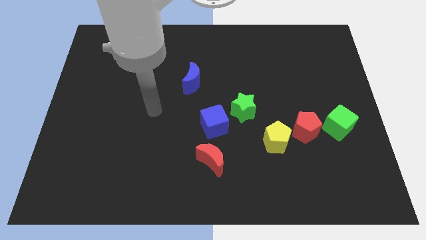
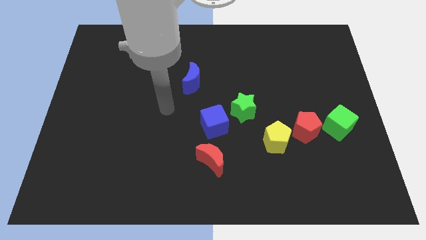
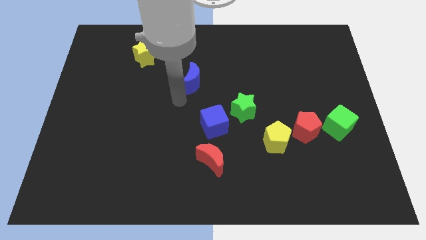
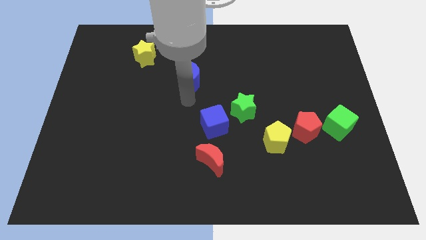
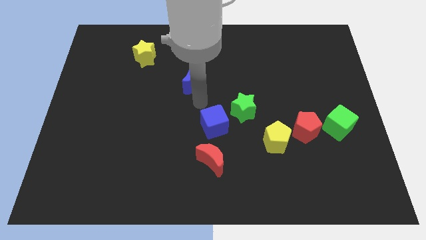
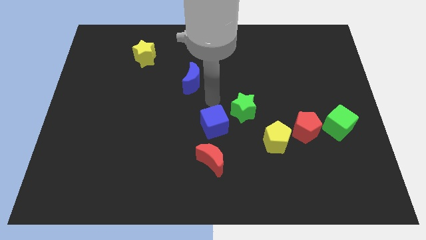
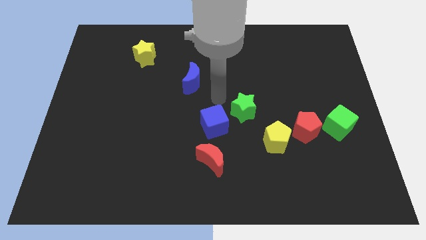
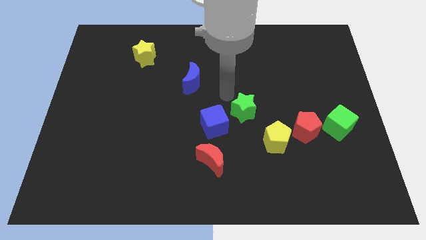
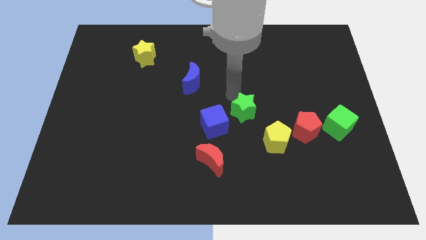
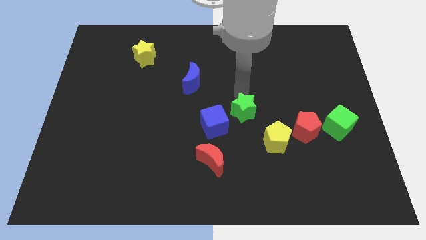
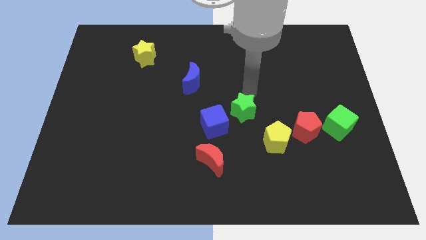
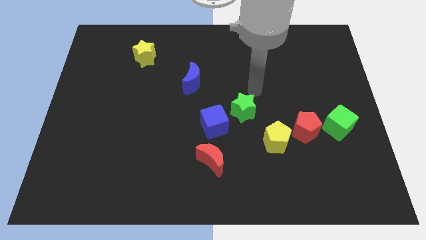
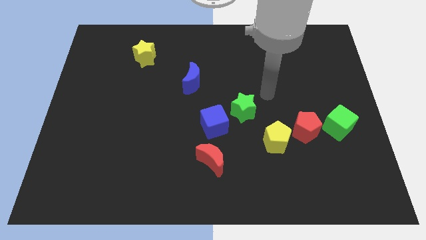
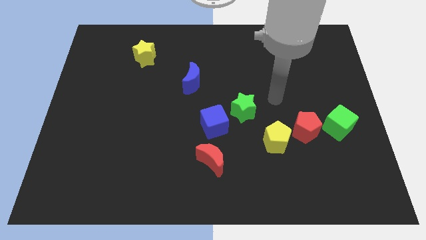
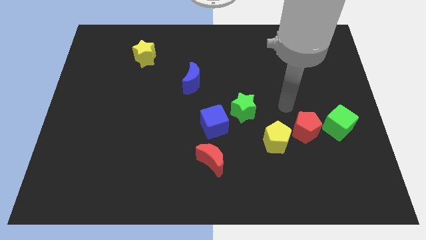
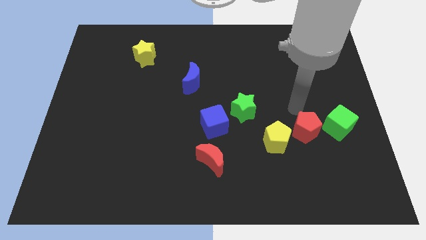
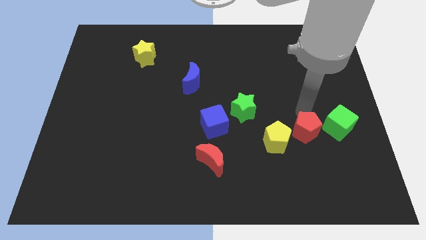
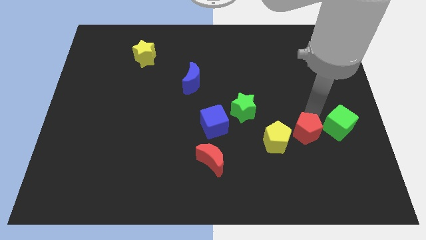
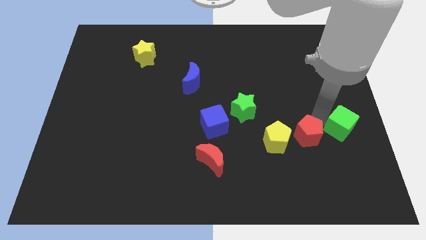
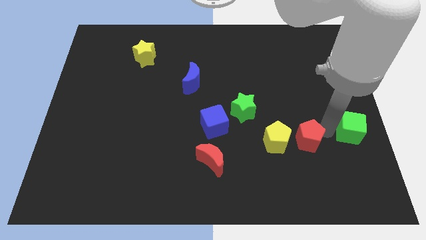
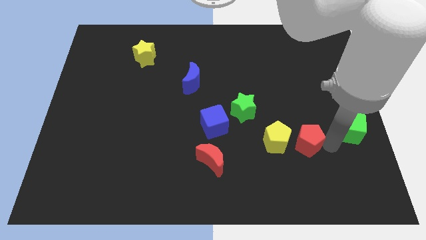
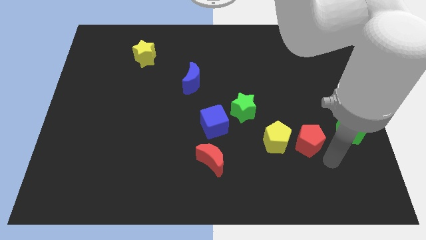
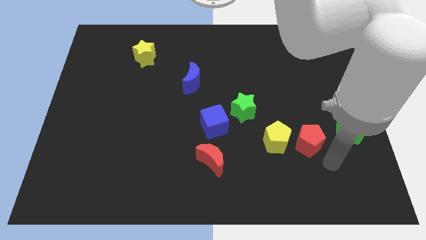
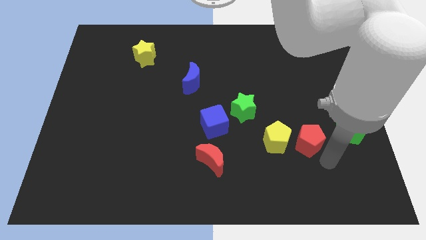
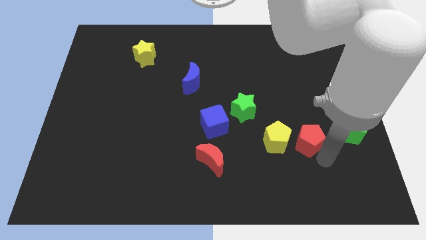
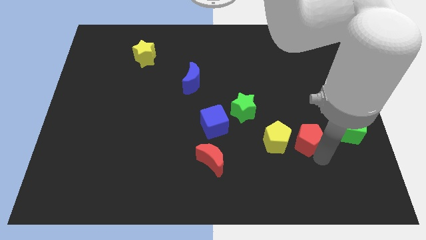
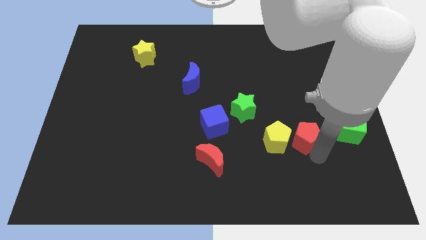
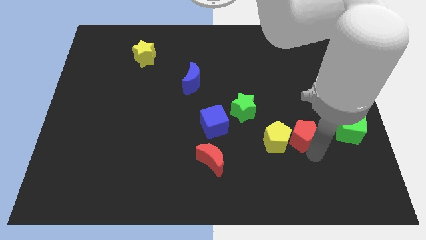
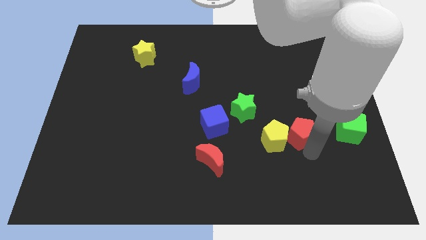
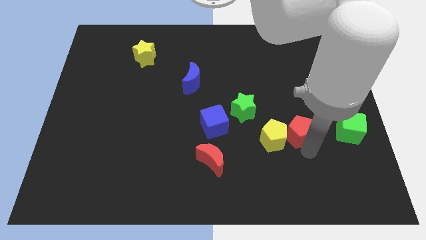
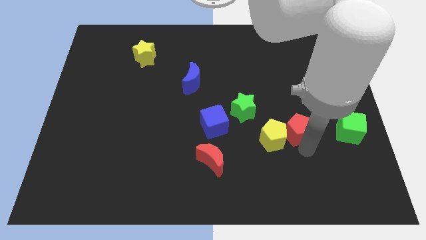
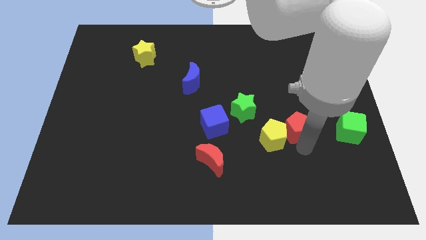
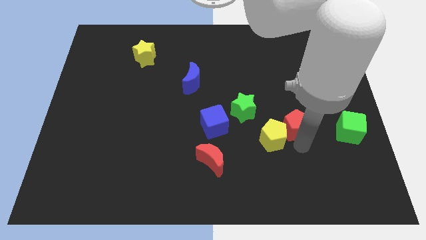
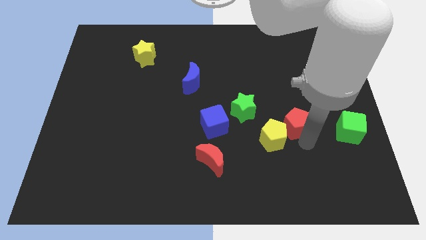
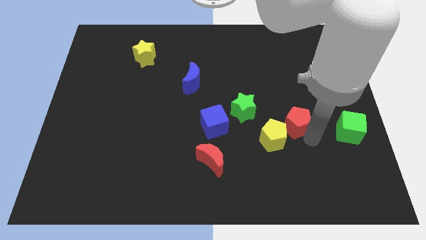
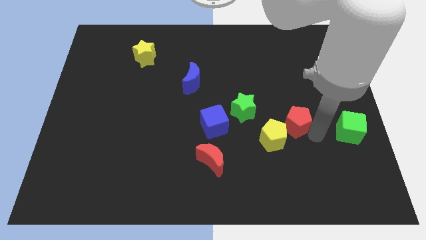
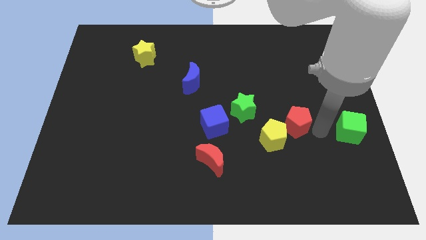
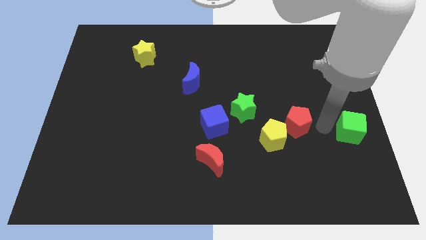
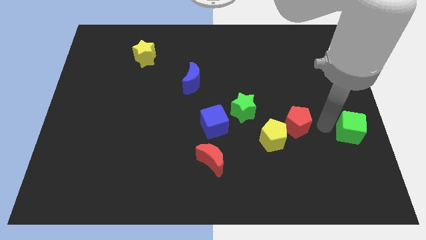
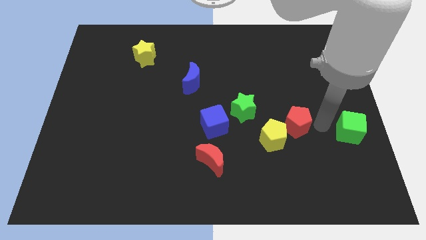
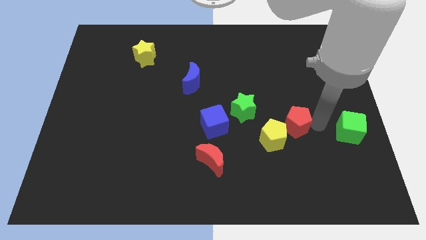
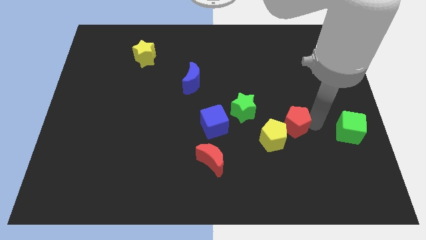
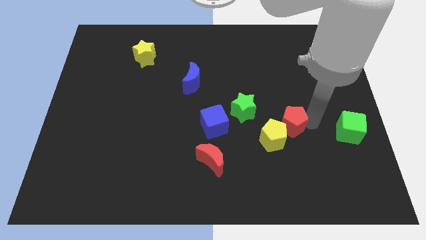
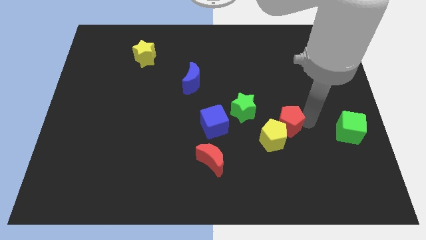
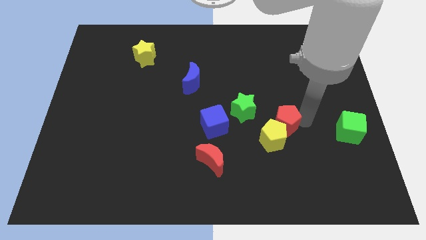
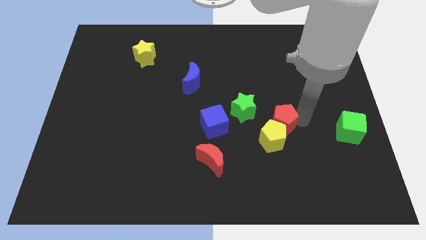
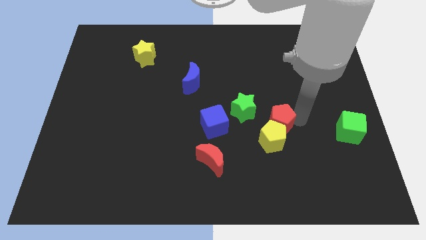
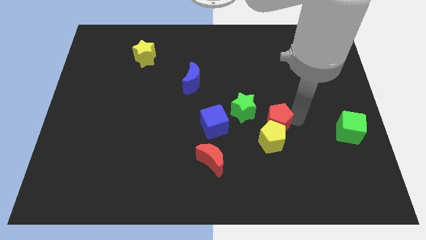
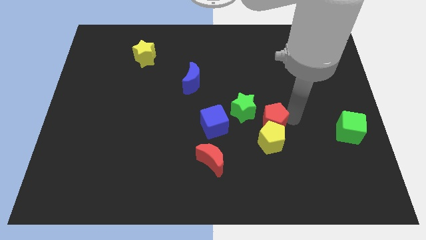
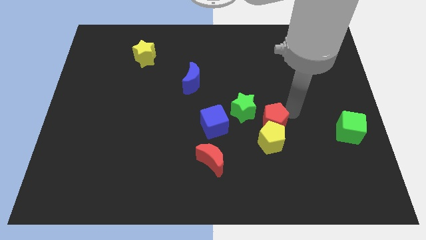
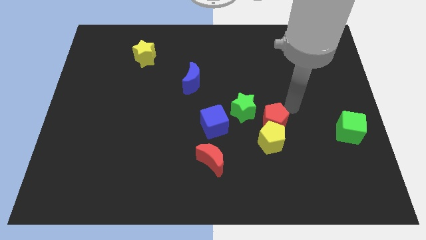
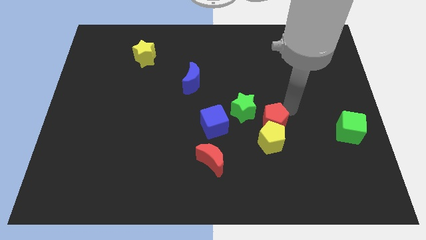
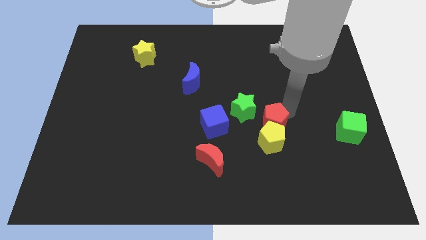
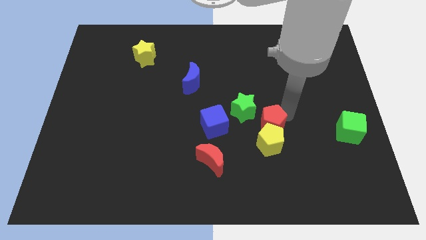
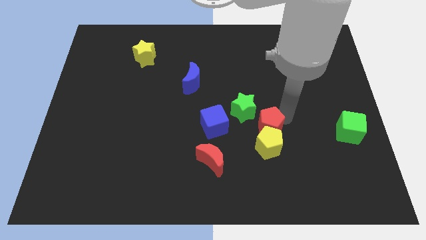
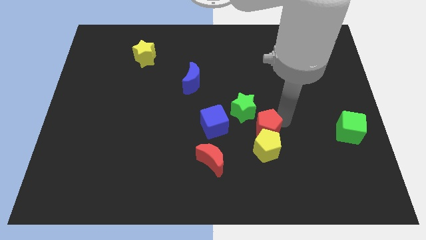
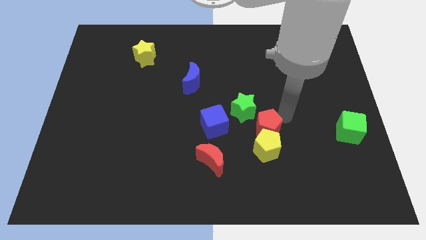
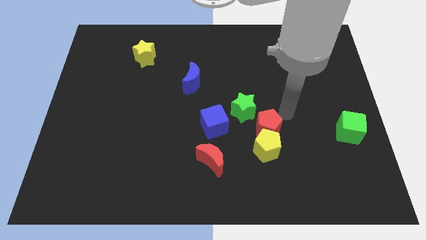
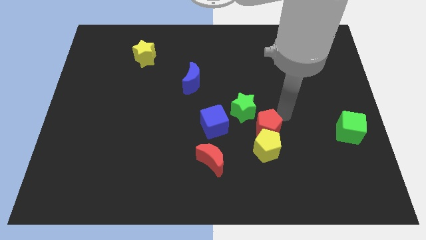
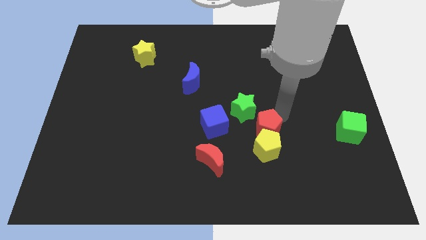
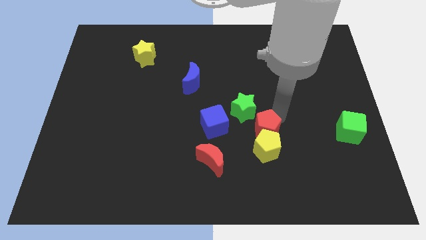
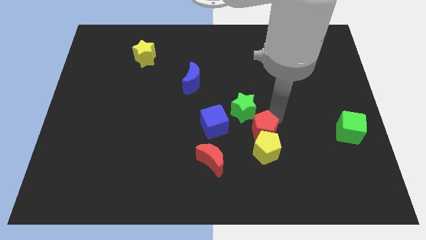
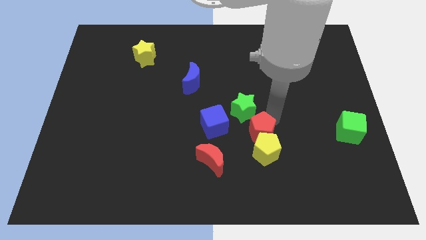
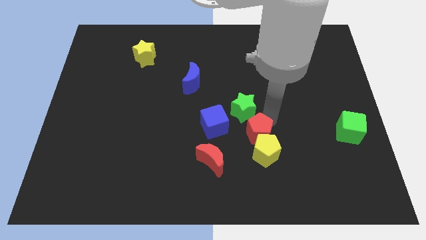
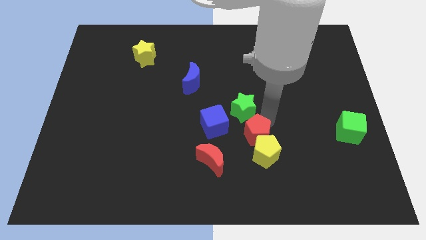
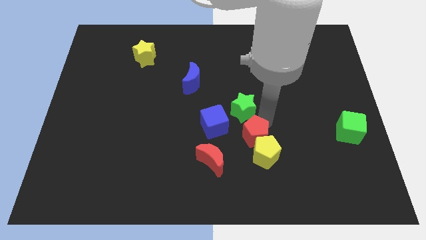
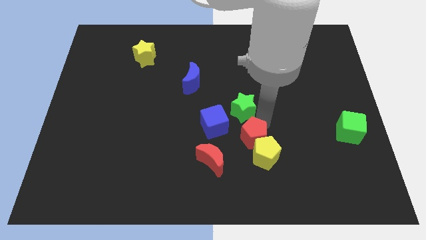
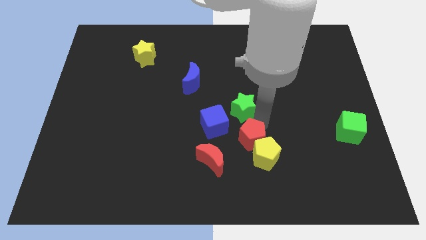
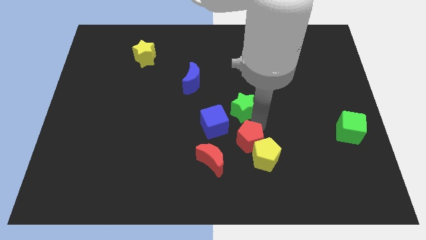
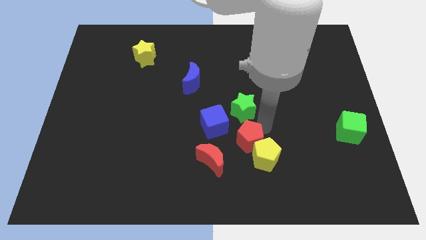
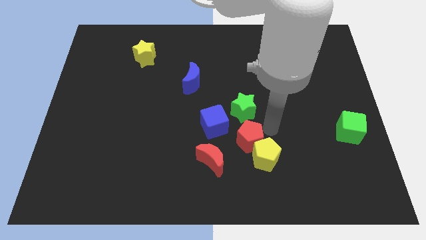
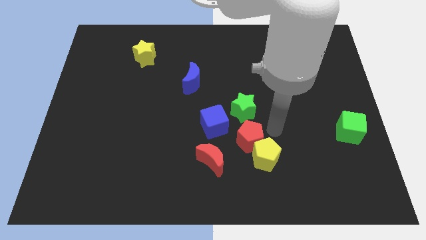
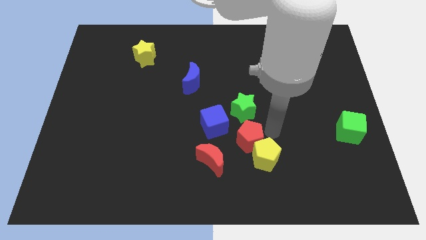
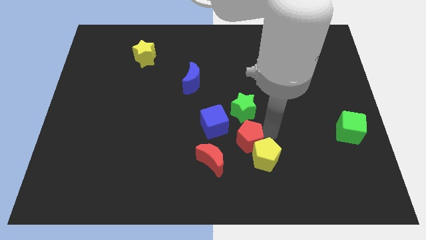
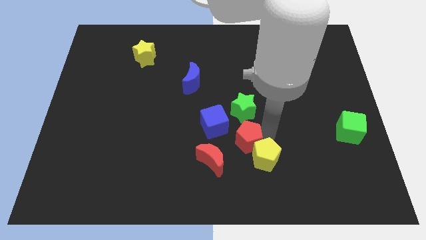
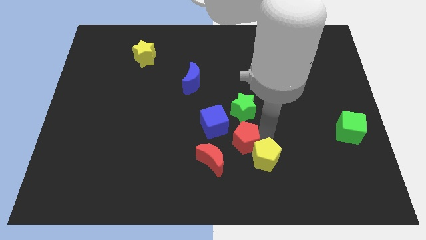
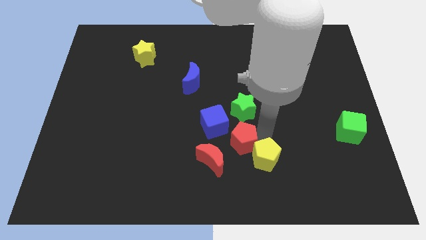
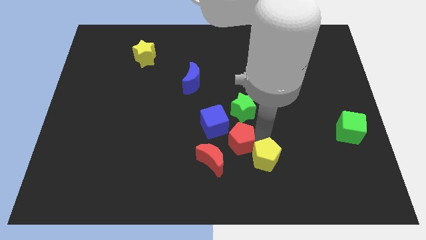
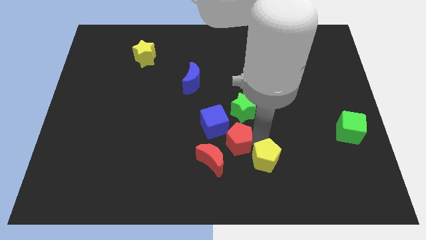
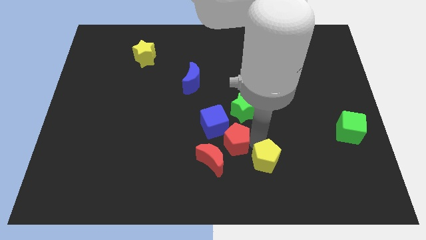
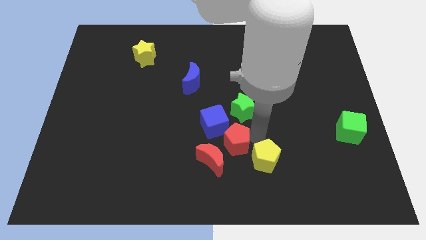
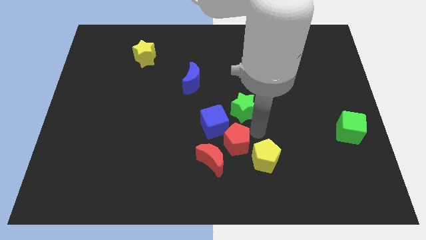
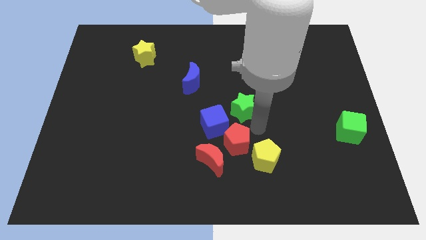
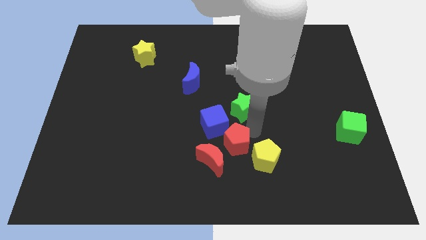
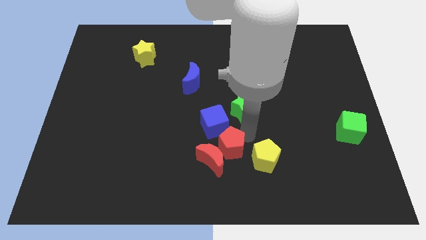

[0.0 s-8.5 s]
put the red pentagon to the red moon
